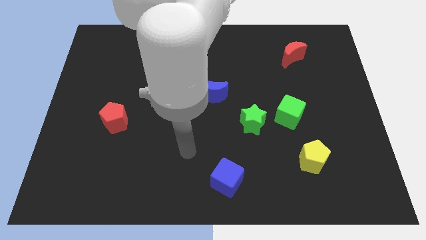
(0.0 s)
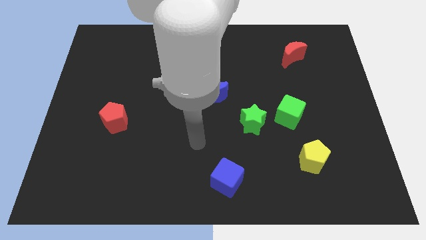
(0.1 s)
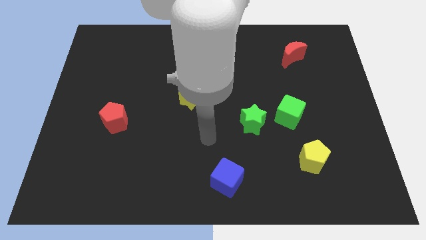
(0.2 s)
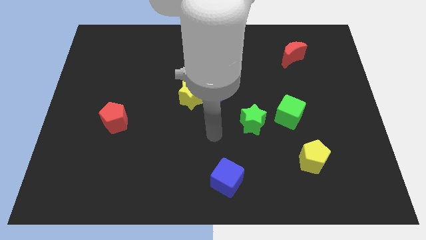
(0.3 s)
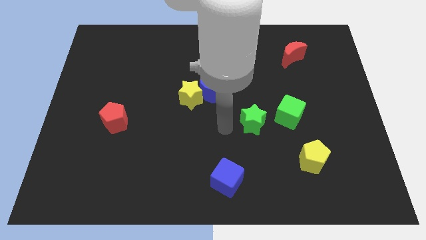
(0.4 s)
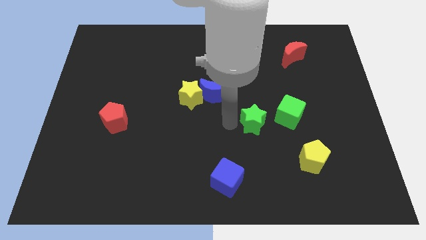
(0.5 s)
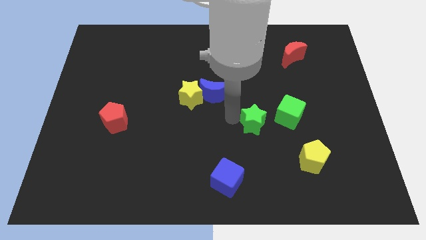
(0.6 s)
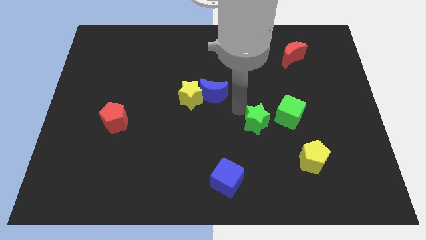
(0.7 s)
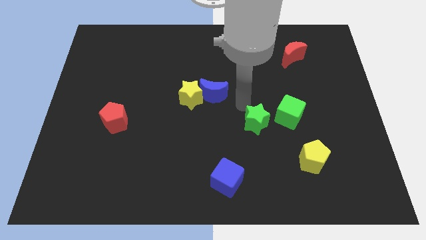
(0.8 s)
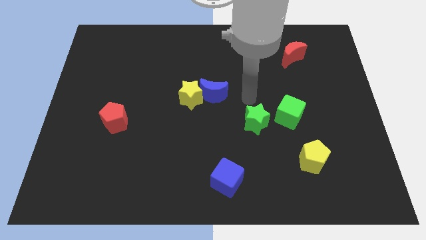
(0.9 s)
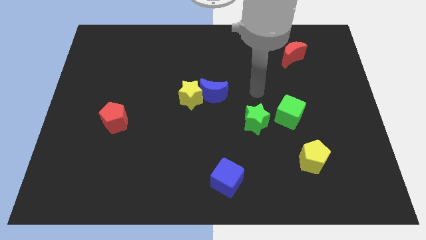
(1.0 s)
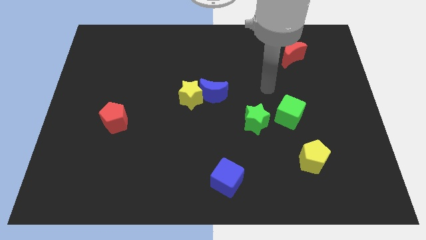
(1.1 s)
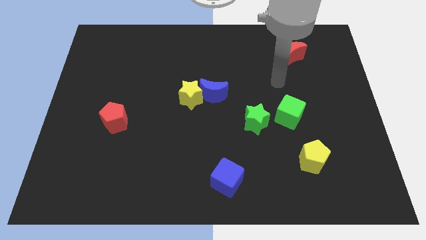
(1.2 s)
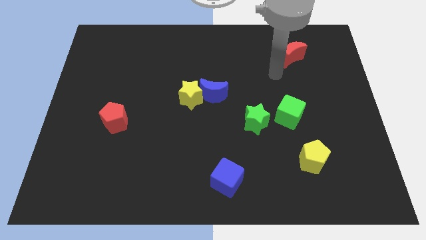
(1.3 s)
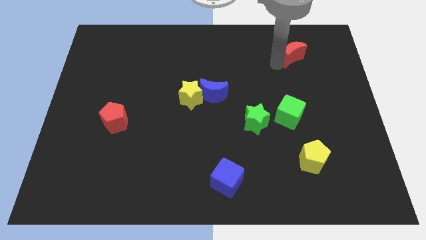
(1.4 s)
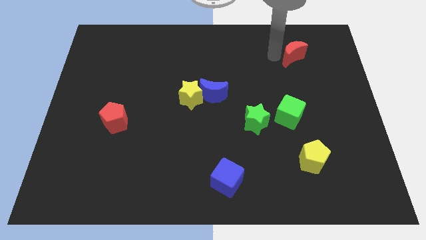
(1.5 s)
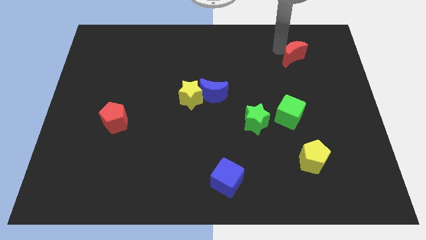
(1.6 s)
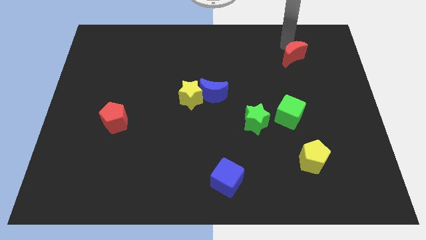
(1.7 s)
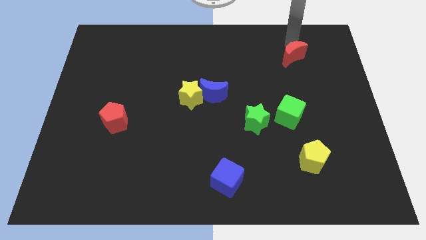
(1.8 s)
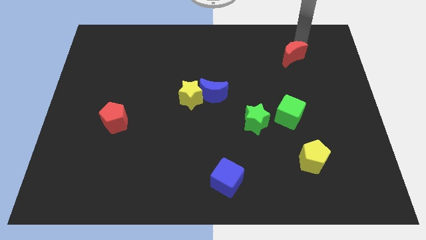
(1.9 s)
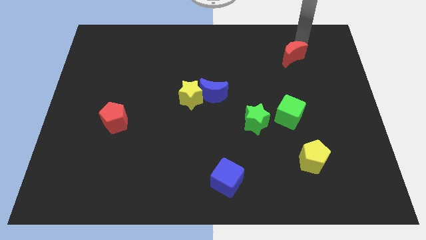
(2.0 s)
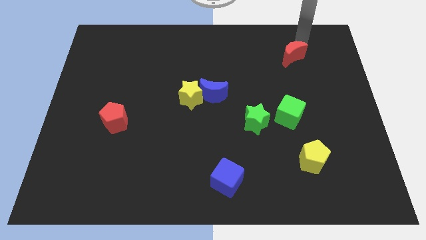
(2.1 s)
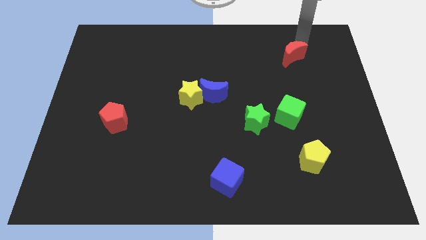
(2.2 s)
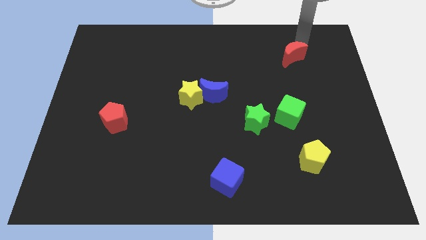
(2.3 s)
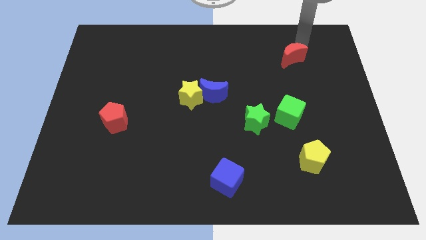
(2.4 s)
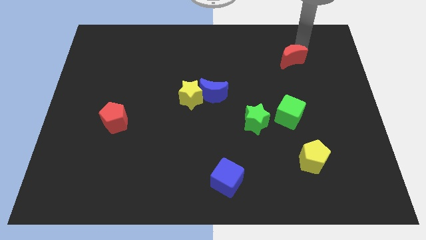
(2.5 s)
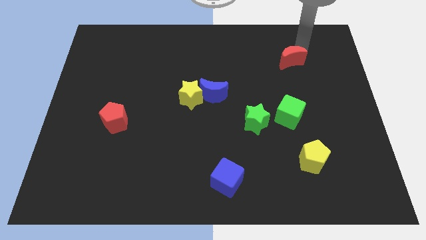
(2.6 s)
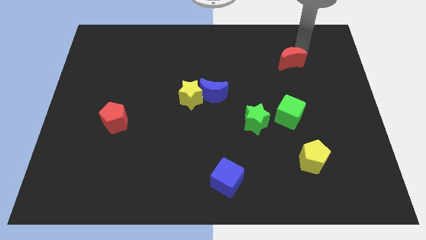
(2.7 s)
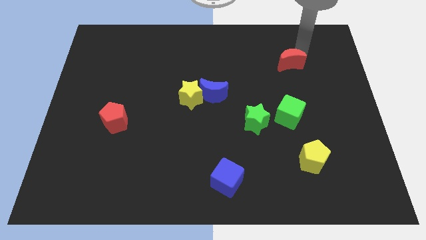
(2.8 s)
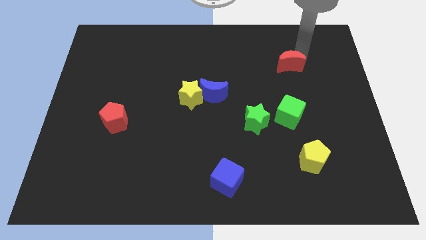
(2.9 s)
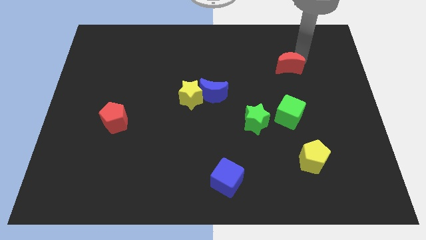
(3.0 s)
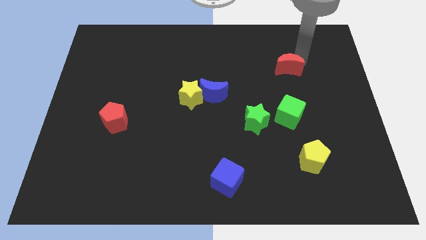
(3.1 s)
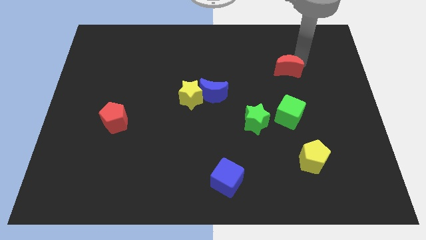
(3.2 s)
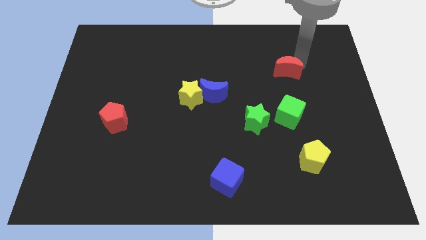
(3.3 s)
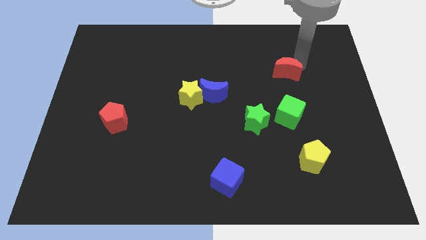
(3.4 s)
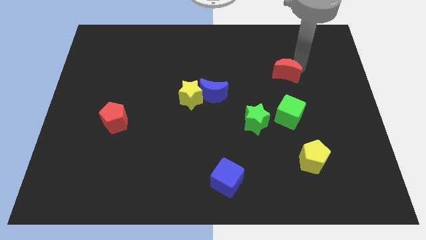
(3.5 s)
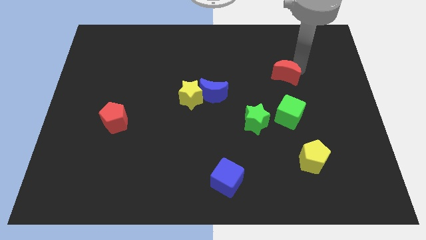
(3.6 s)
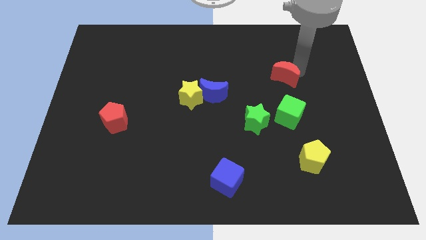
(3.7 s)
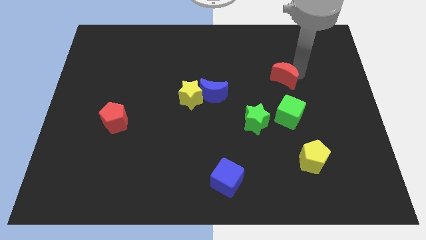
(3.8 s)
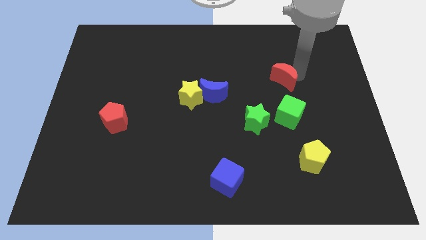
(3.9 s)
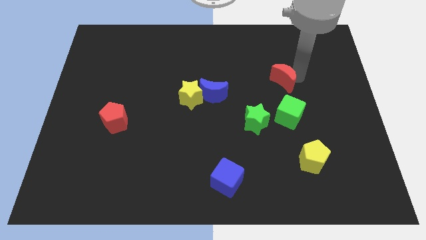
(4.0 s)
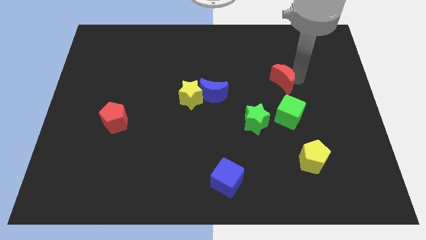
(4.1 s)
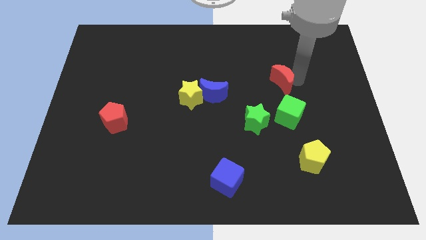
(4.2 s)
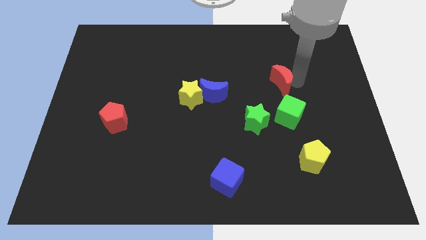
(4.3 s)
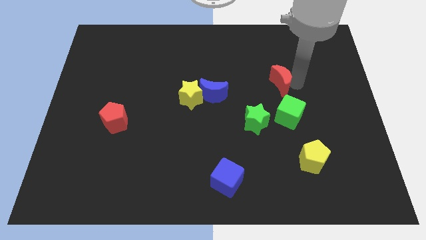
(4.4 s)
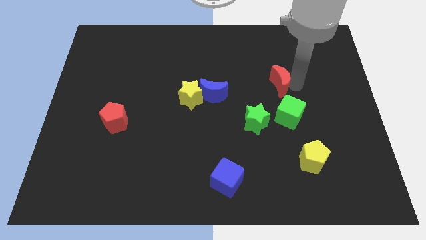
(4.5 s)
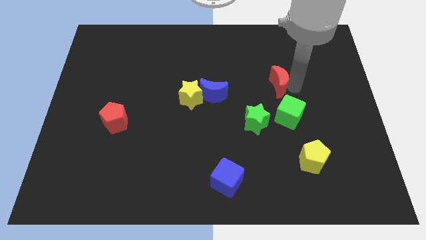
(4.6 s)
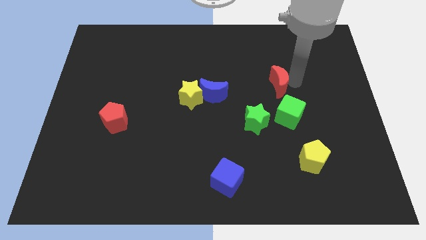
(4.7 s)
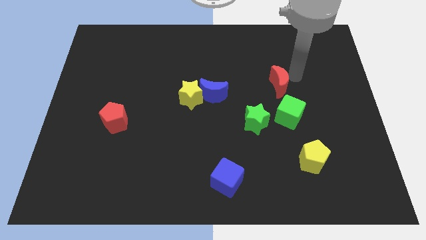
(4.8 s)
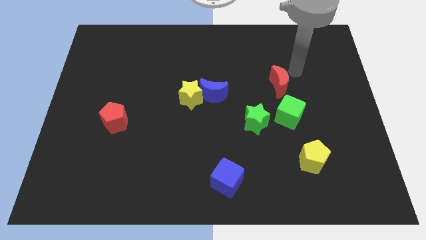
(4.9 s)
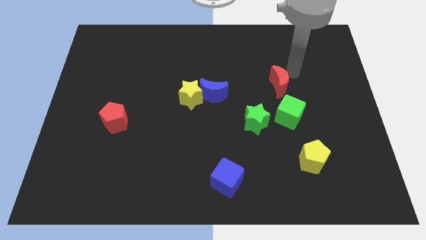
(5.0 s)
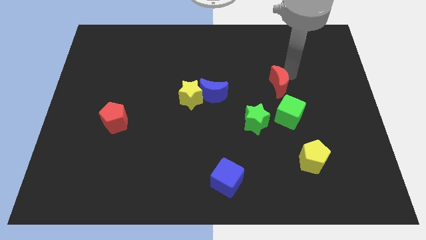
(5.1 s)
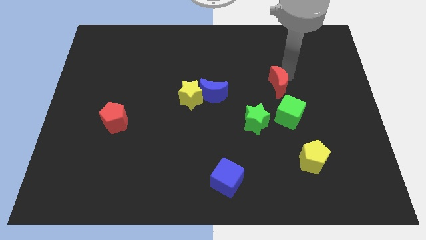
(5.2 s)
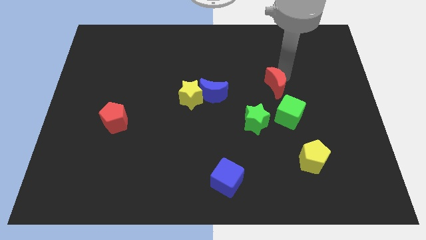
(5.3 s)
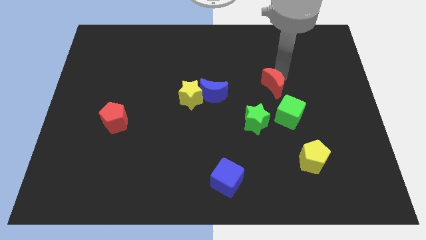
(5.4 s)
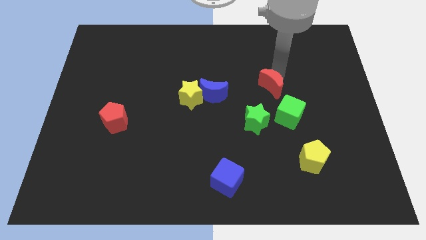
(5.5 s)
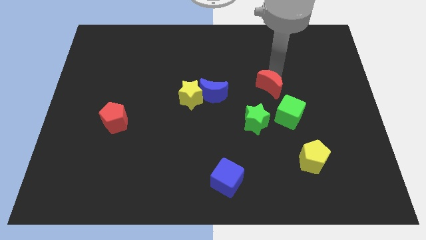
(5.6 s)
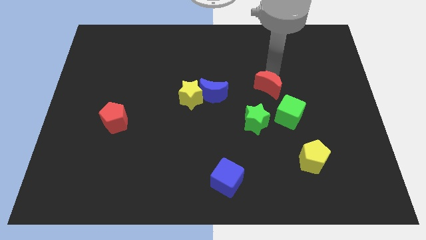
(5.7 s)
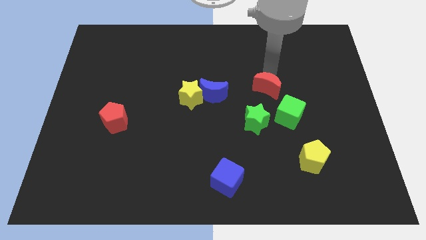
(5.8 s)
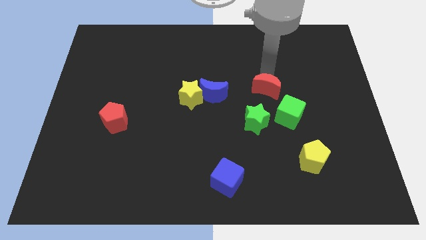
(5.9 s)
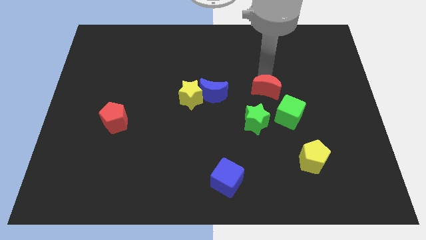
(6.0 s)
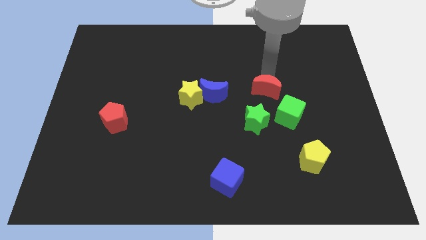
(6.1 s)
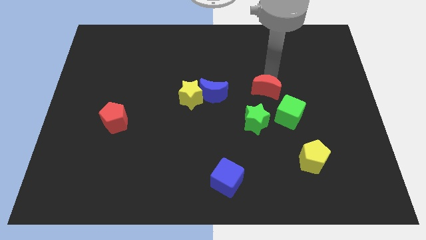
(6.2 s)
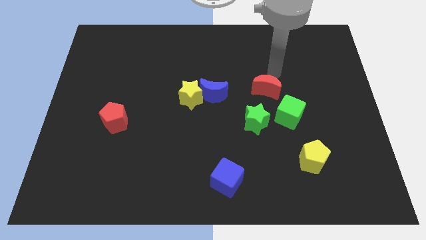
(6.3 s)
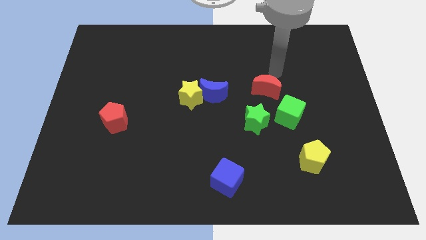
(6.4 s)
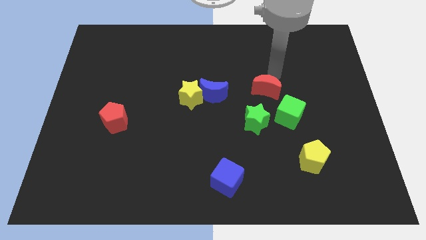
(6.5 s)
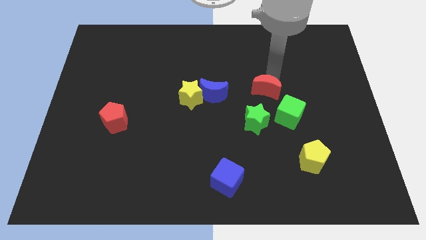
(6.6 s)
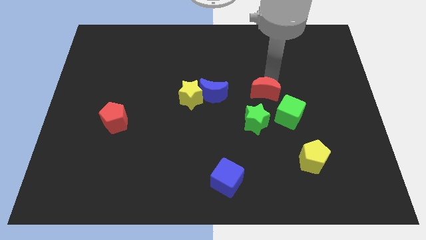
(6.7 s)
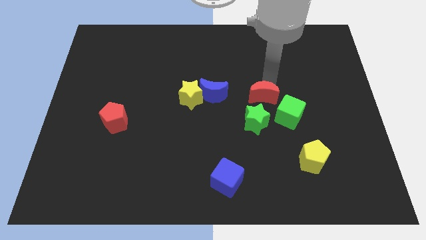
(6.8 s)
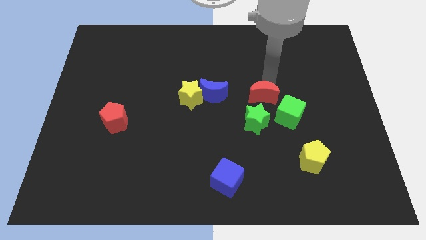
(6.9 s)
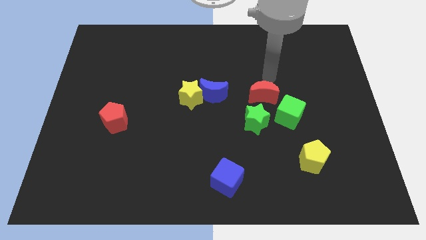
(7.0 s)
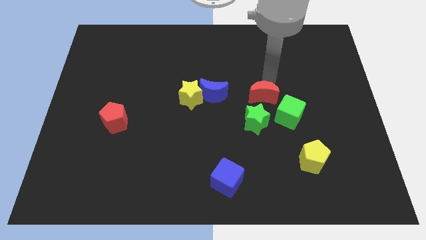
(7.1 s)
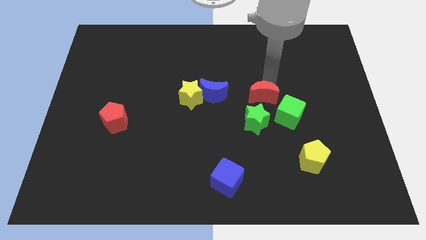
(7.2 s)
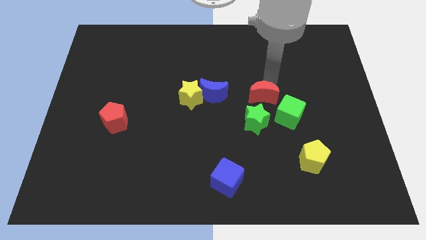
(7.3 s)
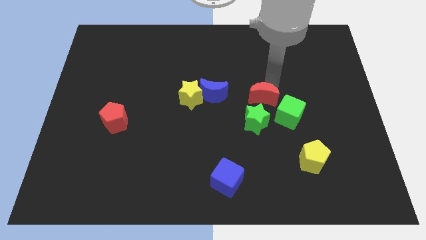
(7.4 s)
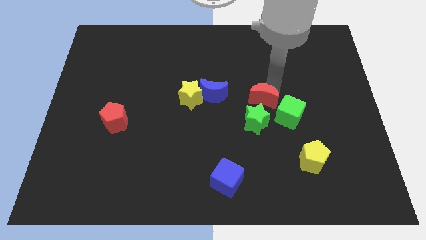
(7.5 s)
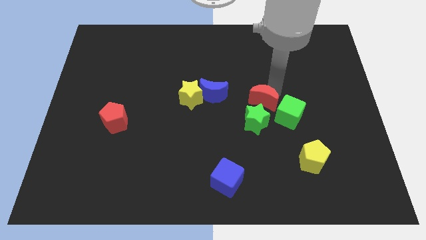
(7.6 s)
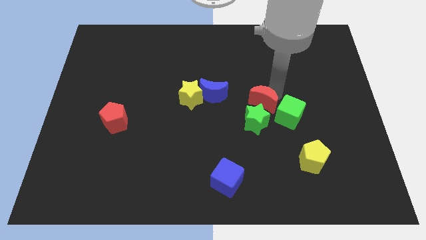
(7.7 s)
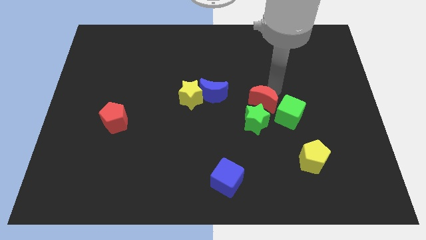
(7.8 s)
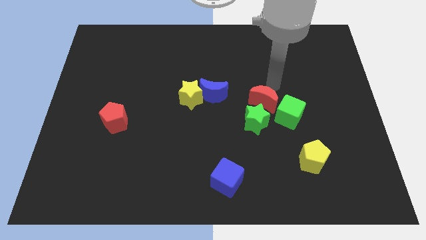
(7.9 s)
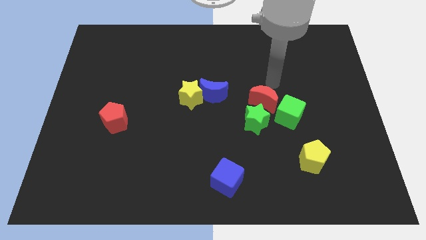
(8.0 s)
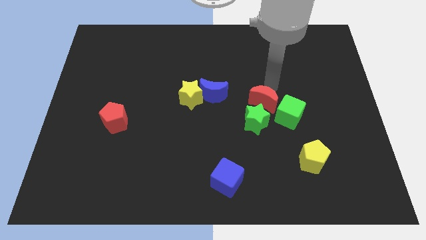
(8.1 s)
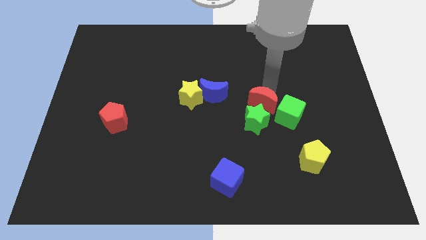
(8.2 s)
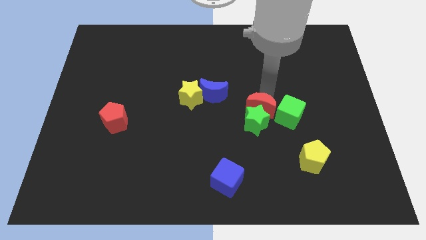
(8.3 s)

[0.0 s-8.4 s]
push the red moon towards the green star
